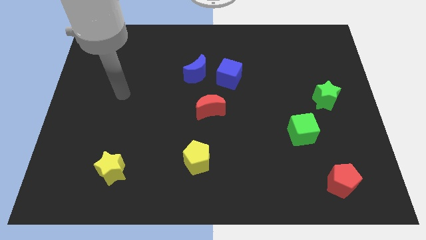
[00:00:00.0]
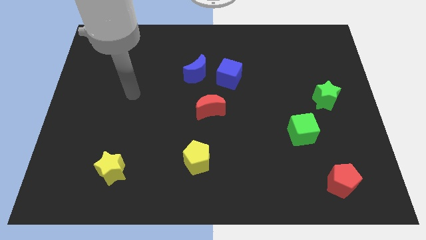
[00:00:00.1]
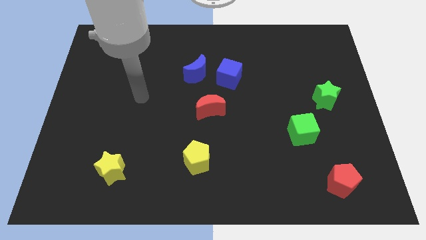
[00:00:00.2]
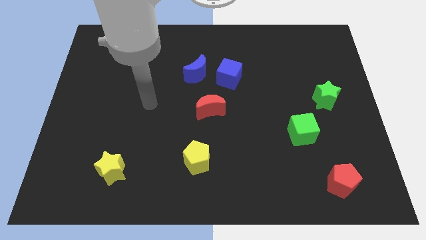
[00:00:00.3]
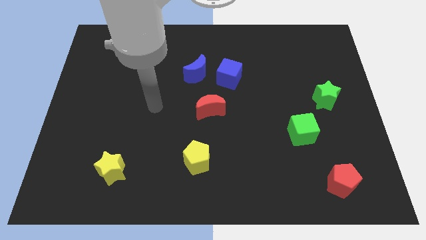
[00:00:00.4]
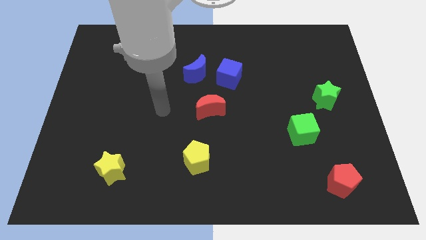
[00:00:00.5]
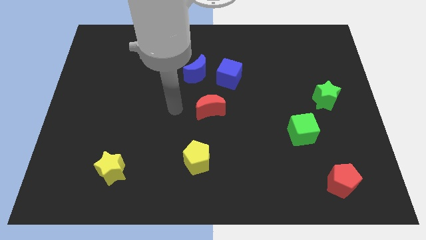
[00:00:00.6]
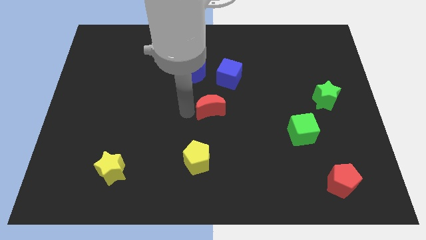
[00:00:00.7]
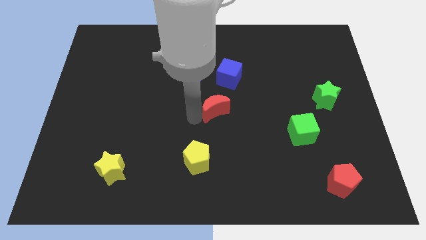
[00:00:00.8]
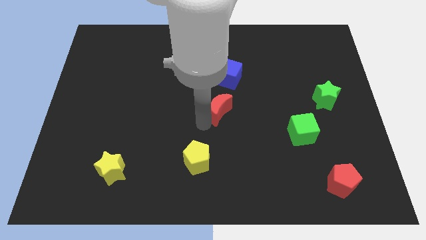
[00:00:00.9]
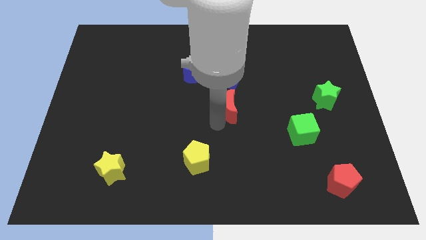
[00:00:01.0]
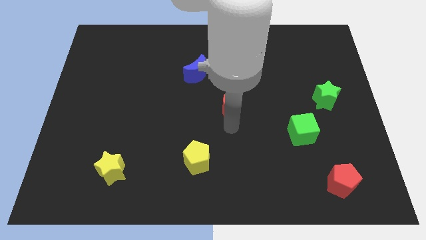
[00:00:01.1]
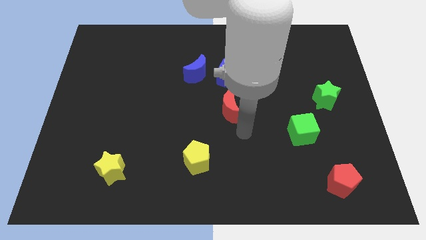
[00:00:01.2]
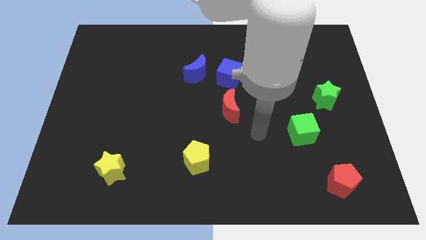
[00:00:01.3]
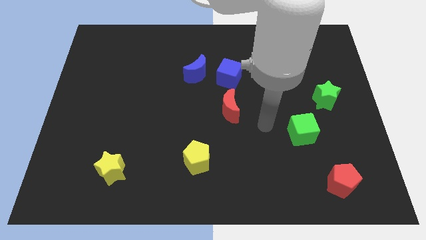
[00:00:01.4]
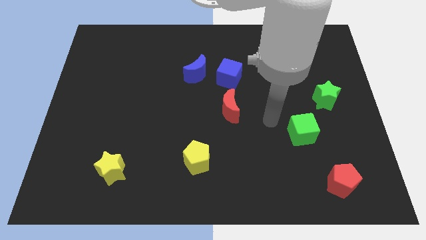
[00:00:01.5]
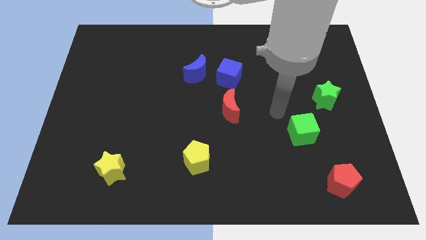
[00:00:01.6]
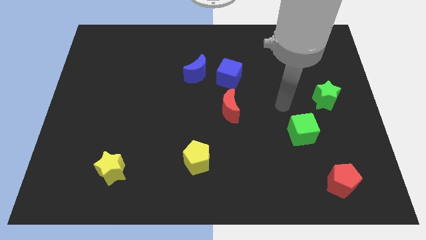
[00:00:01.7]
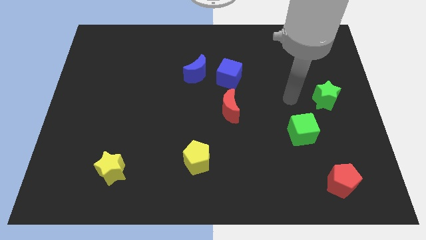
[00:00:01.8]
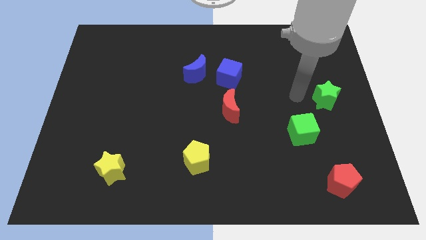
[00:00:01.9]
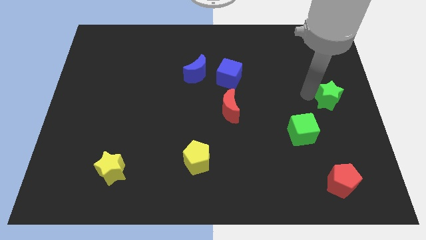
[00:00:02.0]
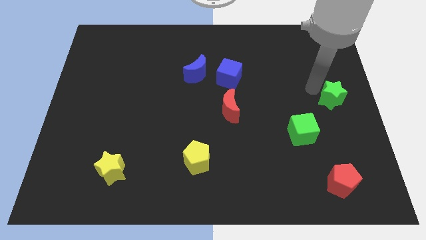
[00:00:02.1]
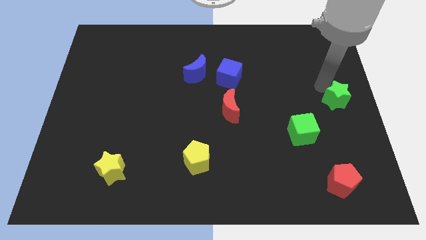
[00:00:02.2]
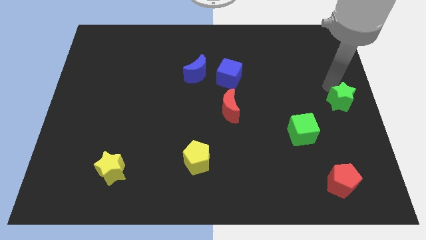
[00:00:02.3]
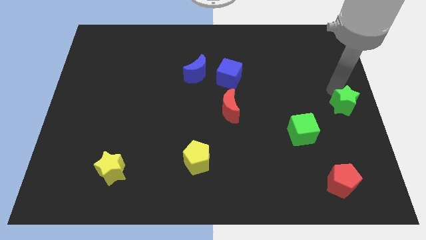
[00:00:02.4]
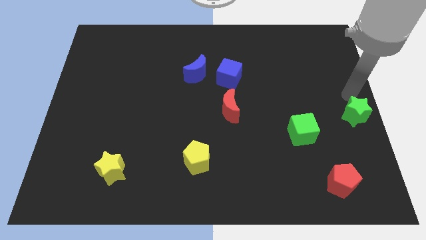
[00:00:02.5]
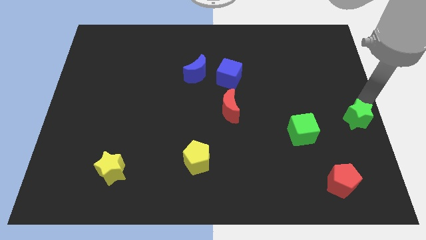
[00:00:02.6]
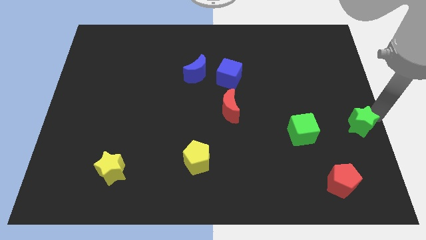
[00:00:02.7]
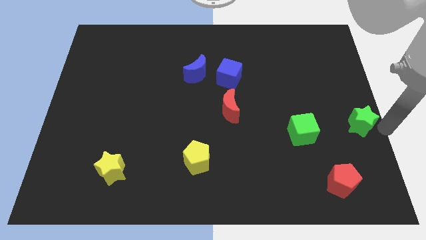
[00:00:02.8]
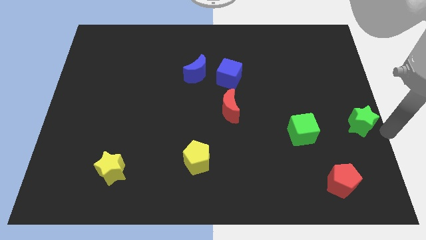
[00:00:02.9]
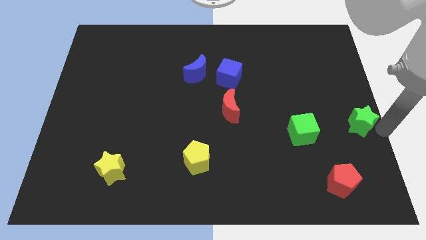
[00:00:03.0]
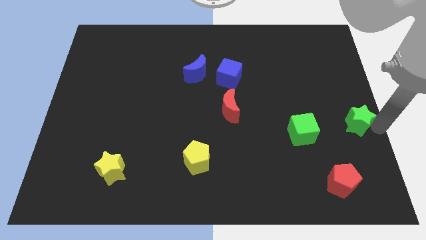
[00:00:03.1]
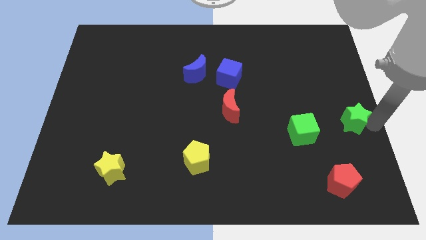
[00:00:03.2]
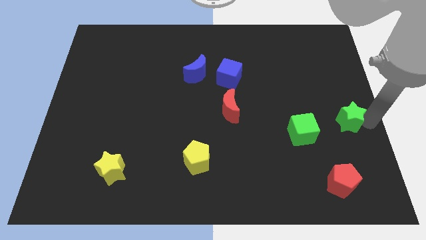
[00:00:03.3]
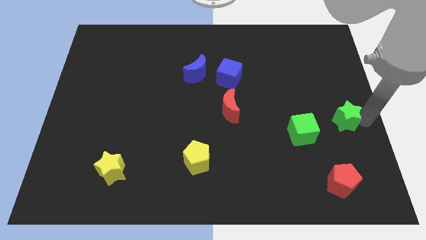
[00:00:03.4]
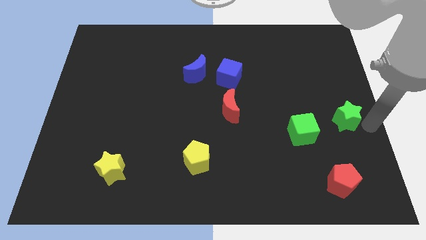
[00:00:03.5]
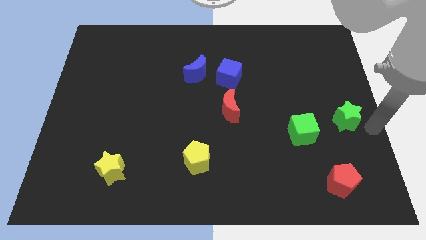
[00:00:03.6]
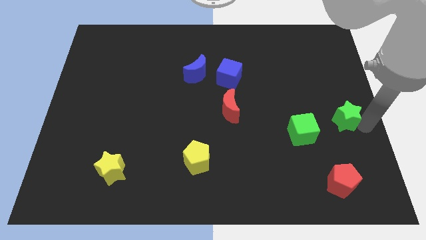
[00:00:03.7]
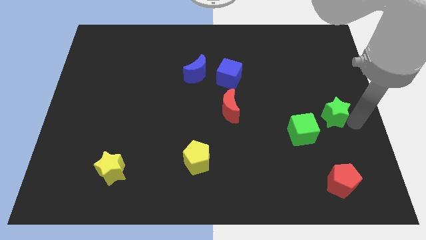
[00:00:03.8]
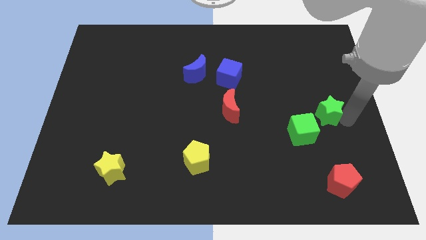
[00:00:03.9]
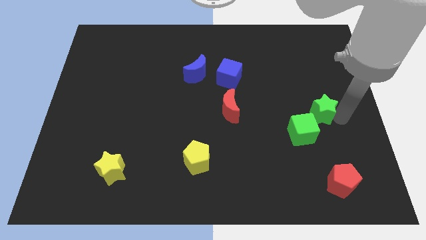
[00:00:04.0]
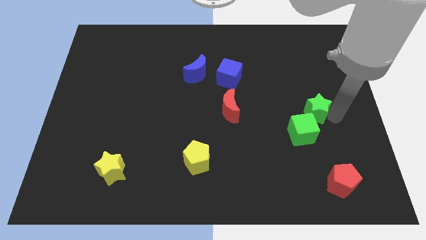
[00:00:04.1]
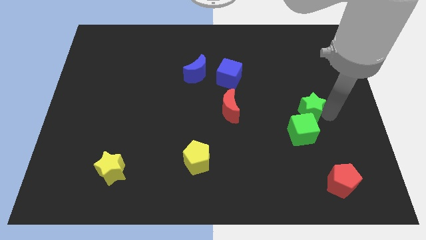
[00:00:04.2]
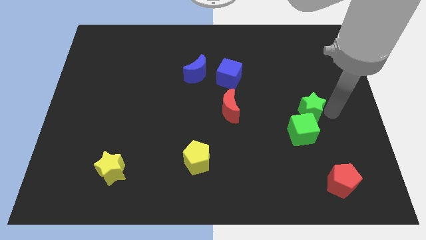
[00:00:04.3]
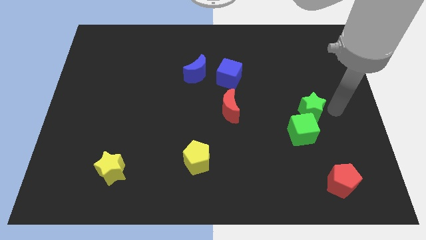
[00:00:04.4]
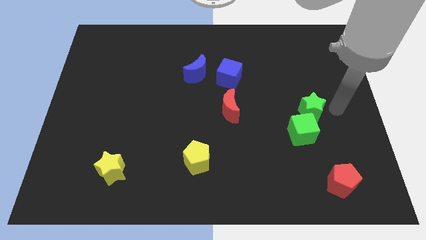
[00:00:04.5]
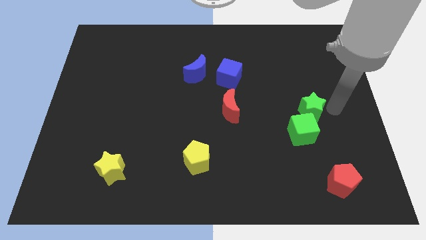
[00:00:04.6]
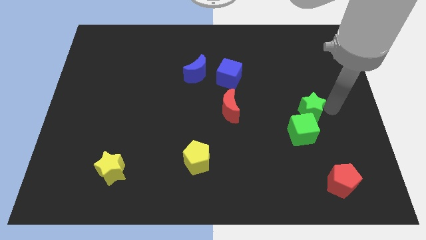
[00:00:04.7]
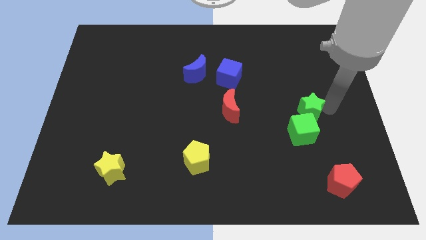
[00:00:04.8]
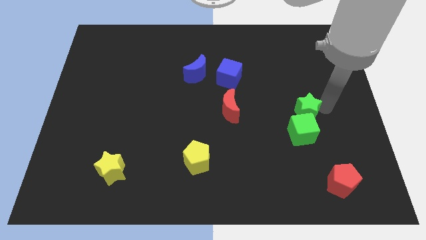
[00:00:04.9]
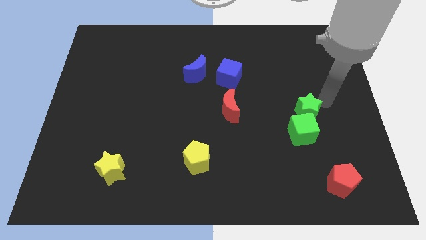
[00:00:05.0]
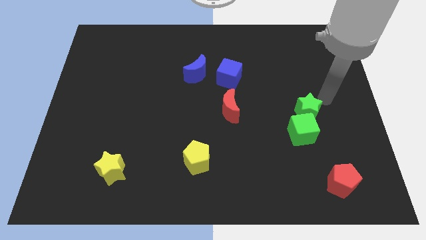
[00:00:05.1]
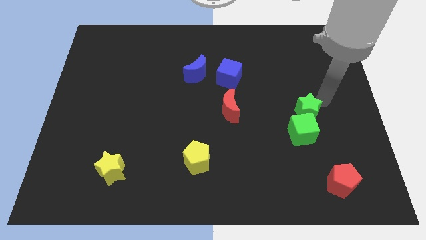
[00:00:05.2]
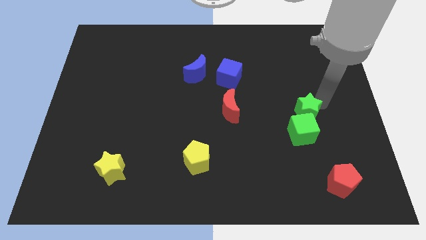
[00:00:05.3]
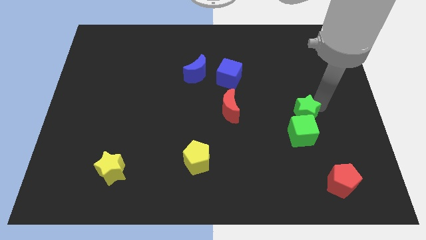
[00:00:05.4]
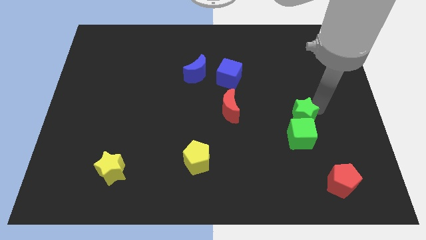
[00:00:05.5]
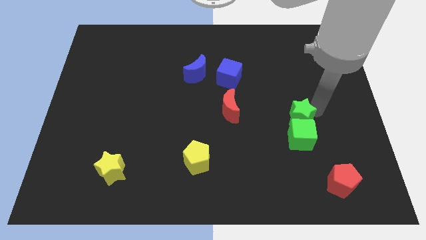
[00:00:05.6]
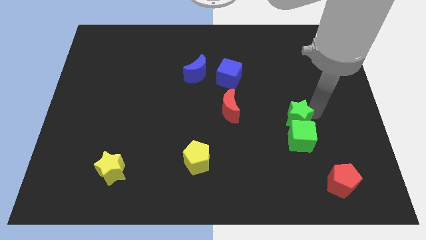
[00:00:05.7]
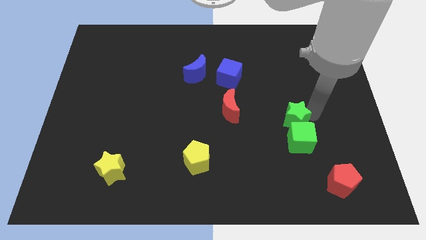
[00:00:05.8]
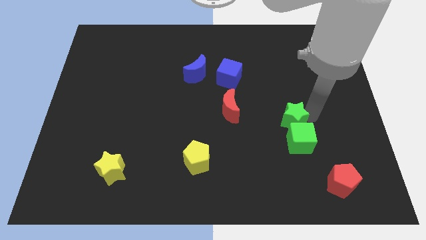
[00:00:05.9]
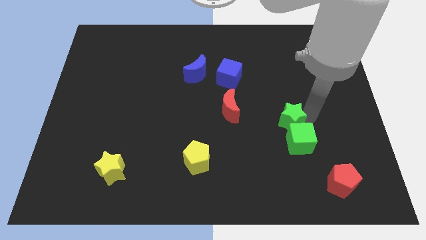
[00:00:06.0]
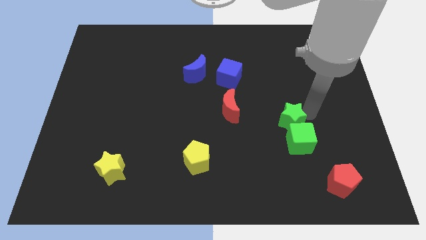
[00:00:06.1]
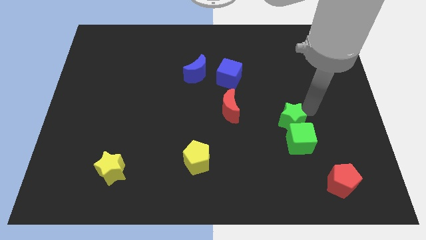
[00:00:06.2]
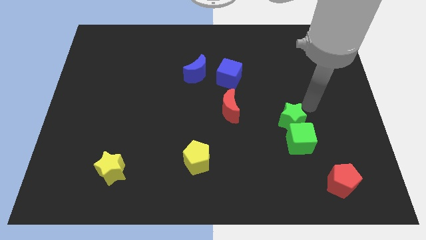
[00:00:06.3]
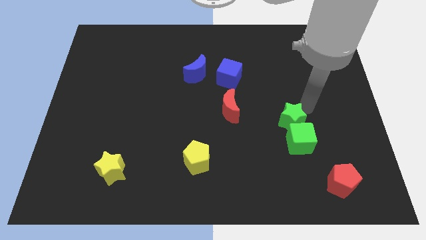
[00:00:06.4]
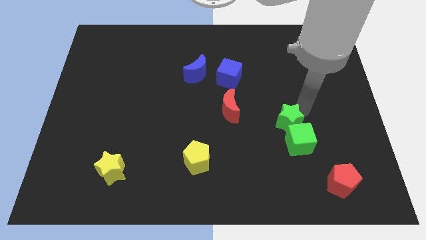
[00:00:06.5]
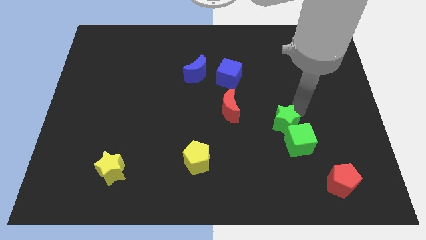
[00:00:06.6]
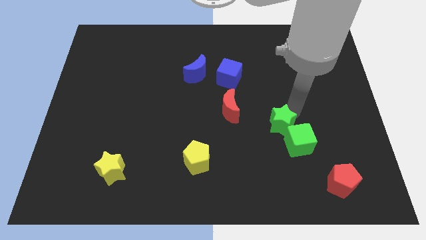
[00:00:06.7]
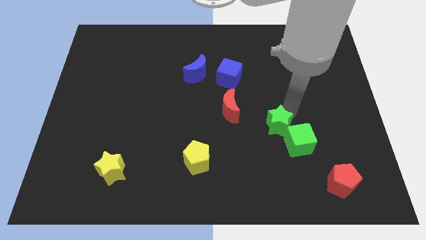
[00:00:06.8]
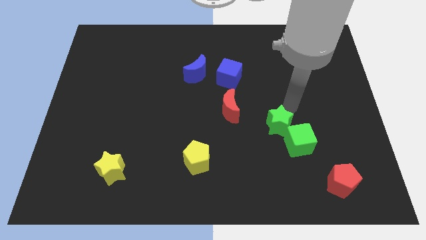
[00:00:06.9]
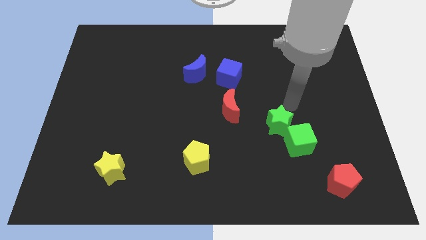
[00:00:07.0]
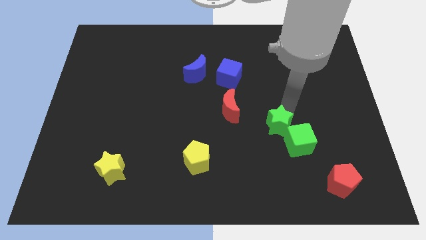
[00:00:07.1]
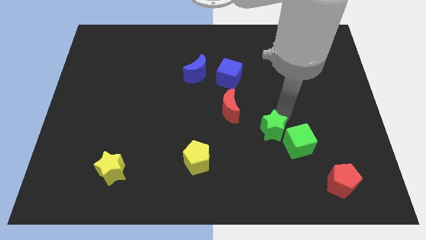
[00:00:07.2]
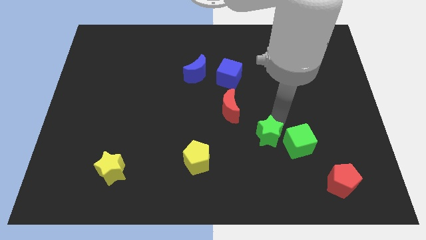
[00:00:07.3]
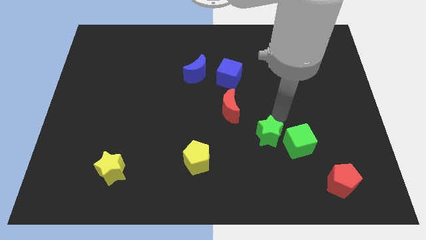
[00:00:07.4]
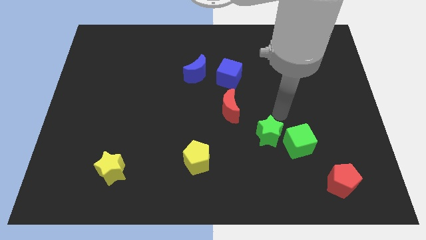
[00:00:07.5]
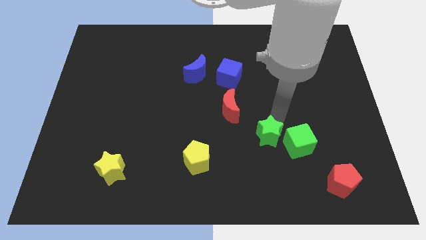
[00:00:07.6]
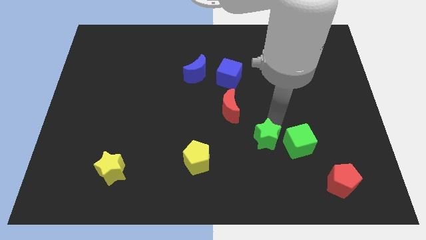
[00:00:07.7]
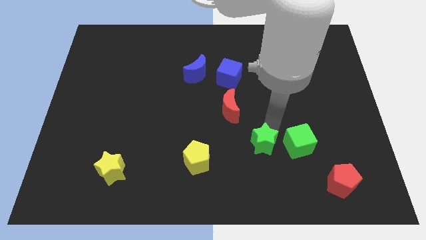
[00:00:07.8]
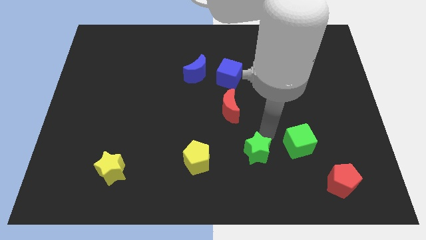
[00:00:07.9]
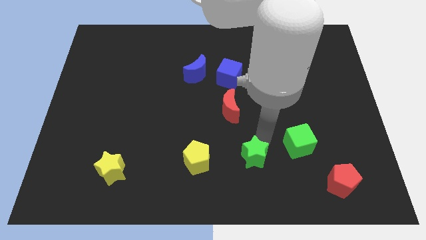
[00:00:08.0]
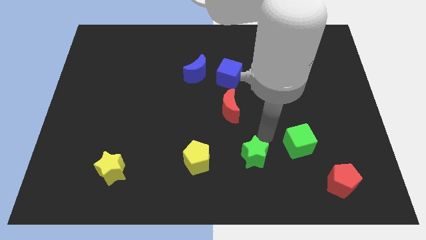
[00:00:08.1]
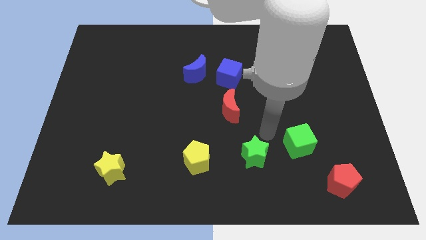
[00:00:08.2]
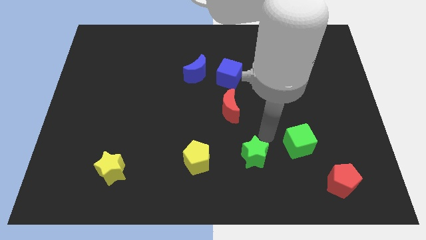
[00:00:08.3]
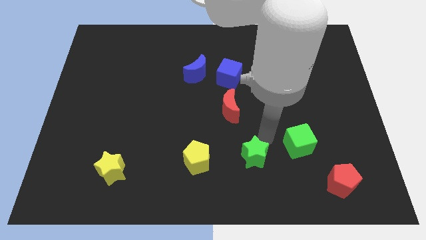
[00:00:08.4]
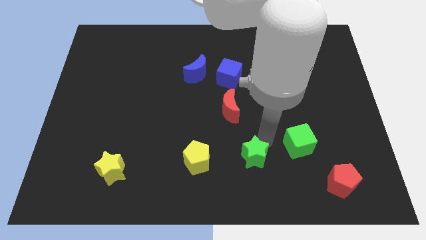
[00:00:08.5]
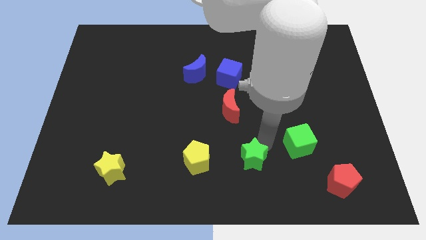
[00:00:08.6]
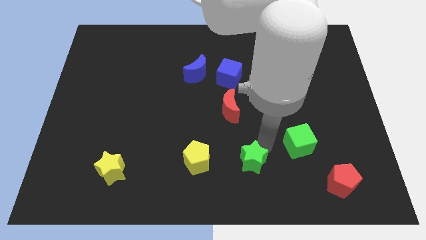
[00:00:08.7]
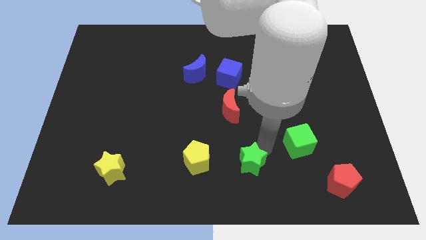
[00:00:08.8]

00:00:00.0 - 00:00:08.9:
push the green star to the bottom
